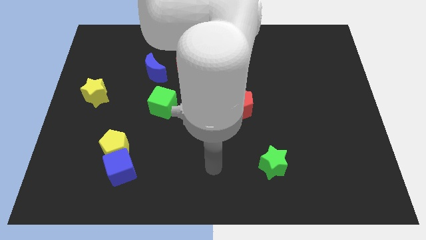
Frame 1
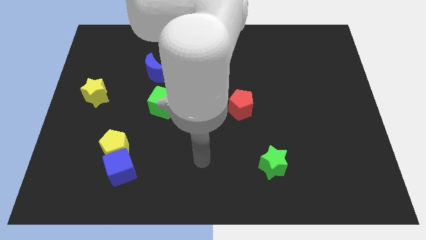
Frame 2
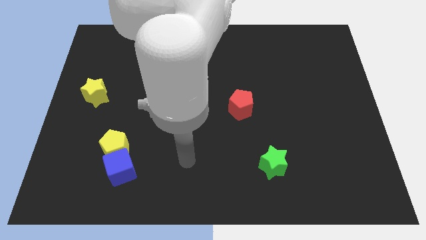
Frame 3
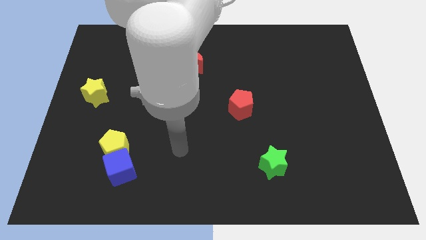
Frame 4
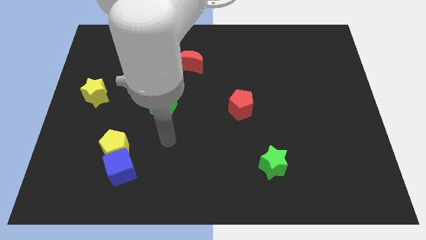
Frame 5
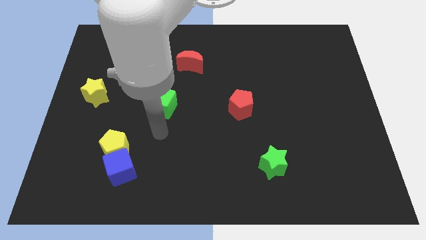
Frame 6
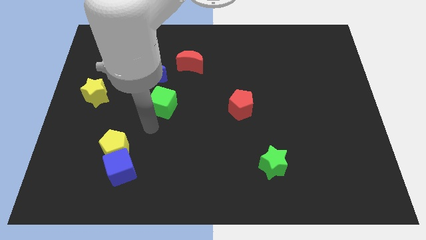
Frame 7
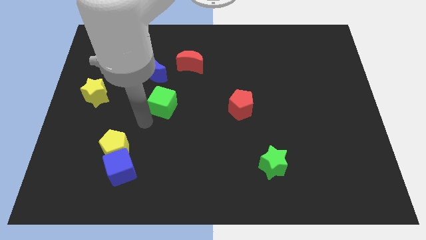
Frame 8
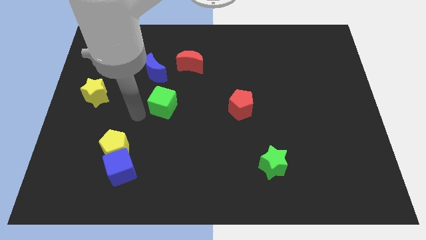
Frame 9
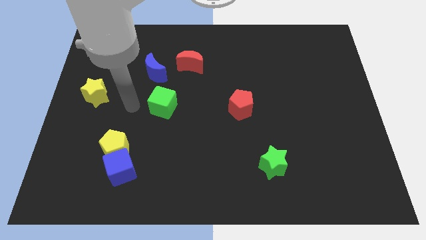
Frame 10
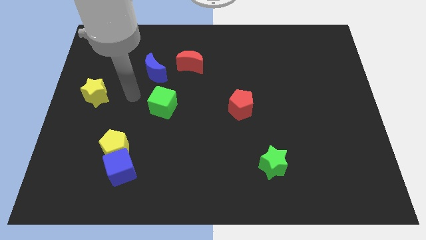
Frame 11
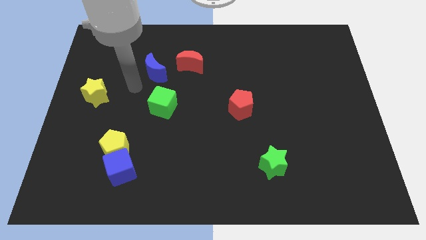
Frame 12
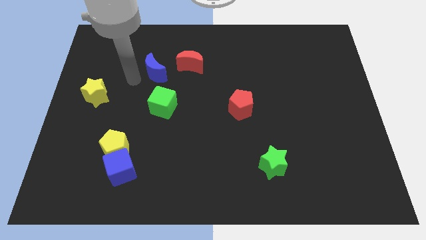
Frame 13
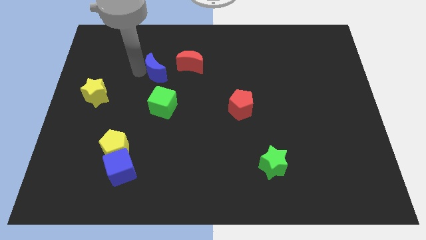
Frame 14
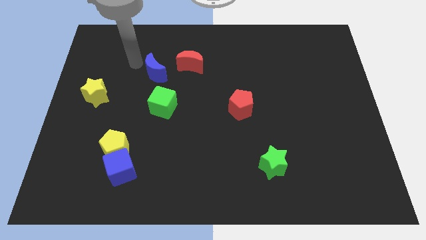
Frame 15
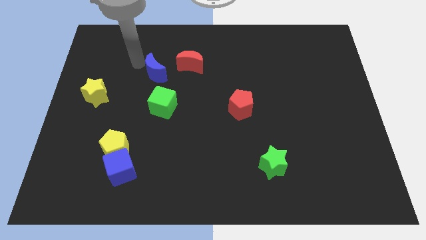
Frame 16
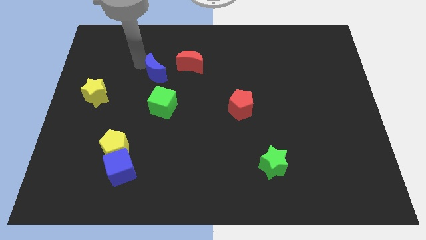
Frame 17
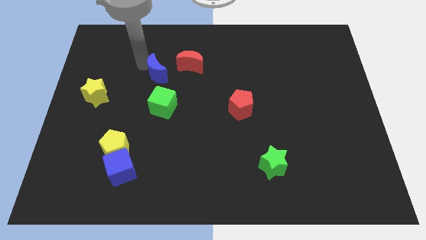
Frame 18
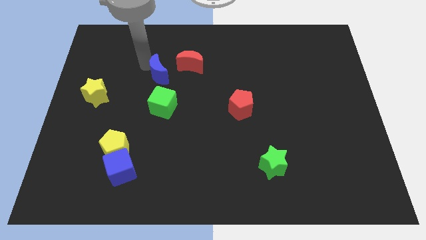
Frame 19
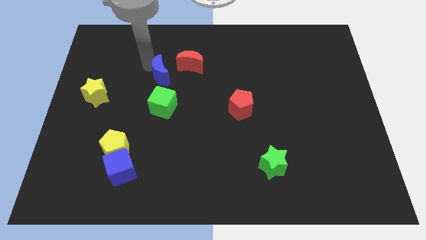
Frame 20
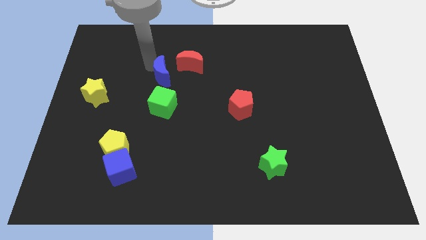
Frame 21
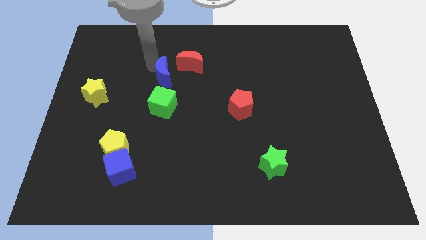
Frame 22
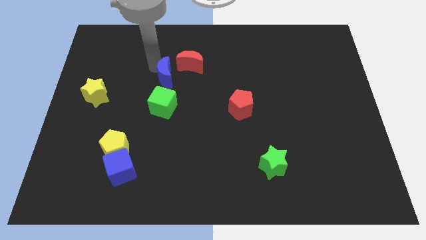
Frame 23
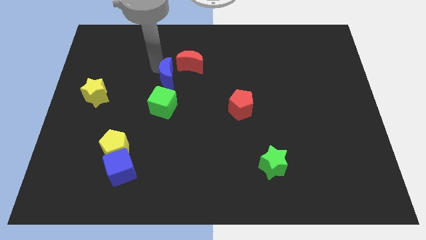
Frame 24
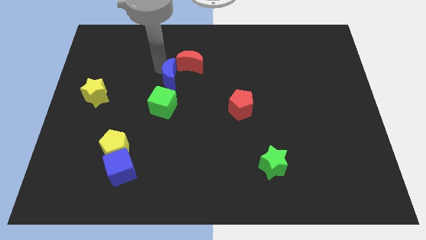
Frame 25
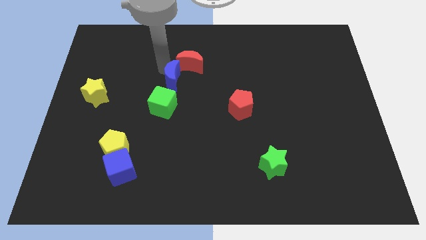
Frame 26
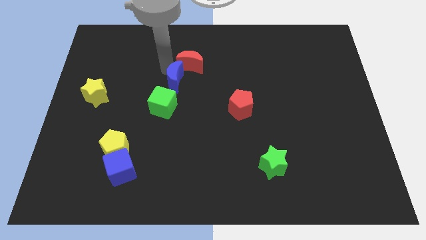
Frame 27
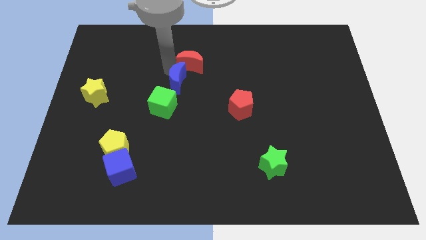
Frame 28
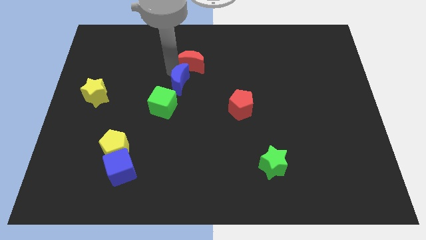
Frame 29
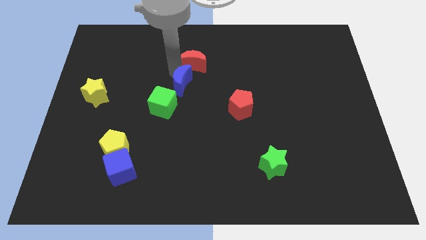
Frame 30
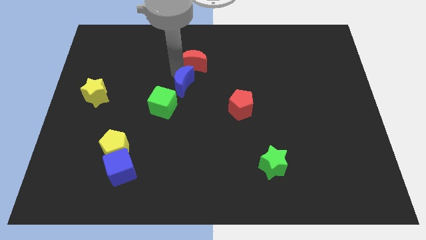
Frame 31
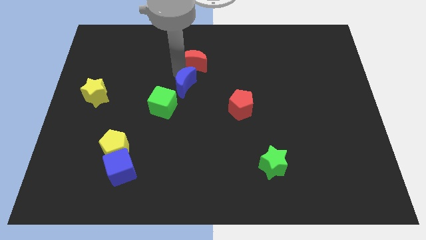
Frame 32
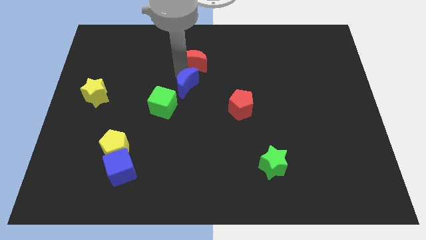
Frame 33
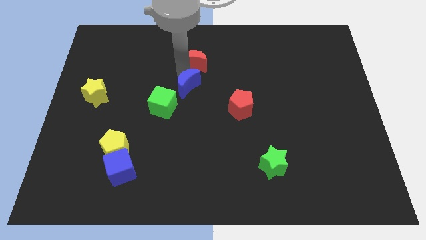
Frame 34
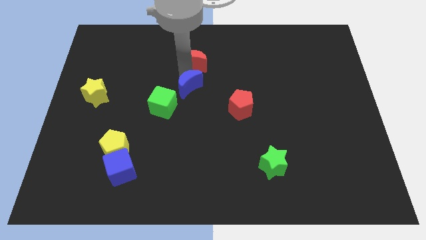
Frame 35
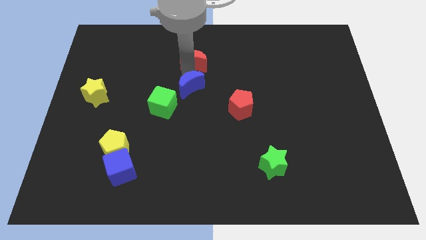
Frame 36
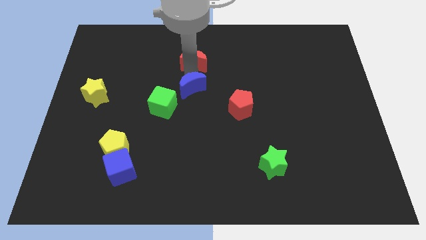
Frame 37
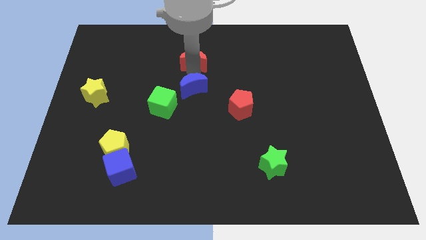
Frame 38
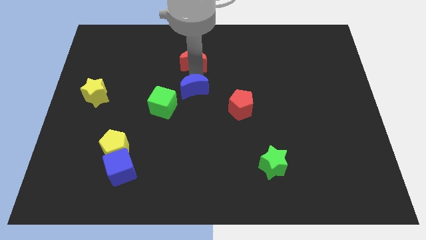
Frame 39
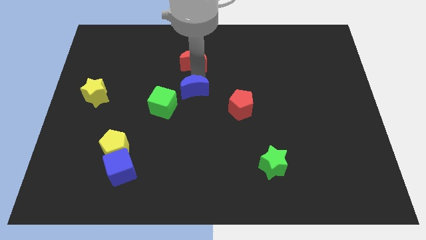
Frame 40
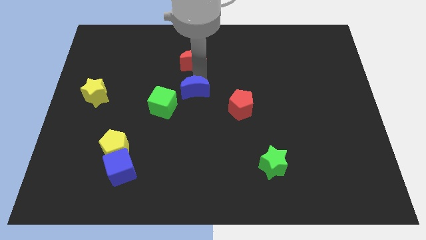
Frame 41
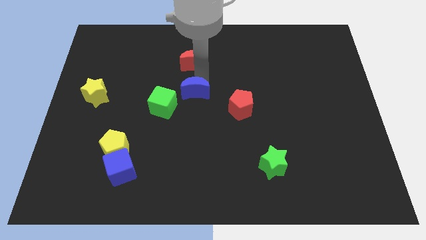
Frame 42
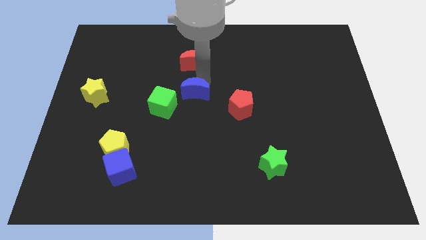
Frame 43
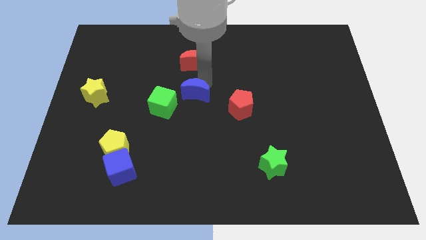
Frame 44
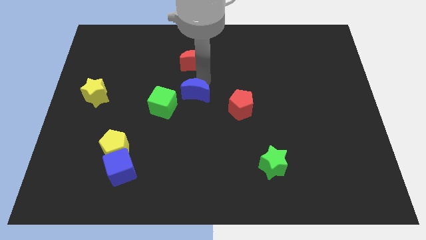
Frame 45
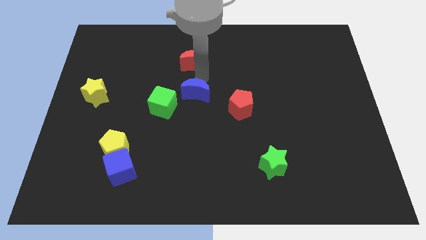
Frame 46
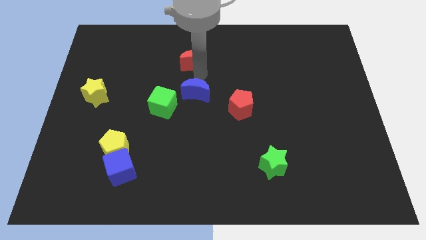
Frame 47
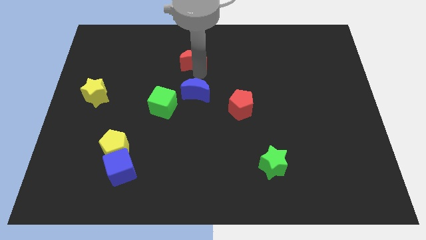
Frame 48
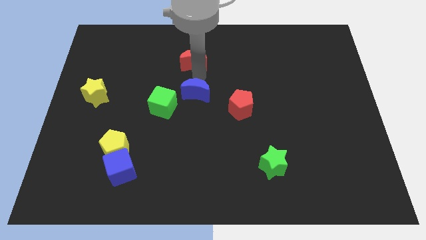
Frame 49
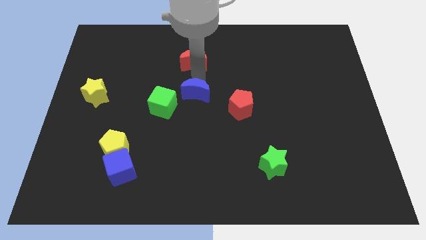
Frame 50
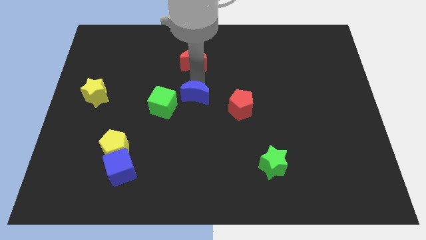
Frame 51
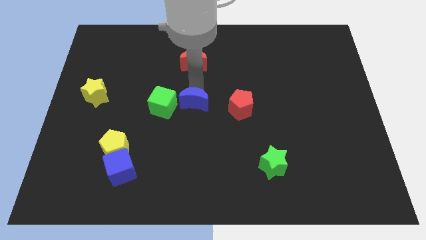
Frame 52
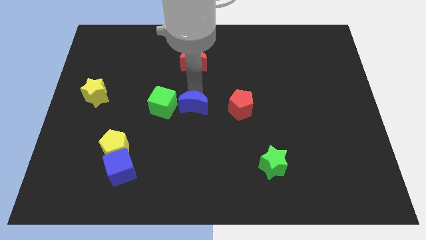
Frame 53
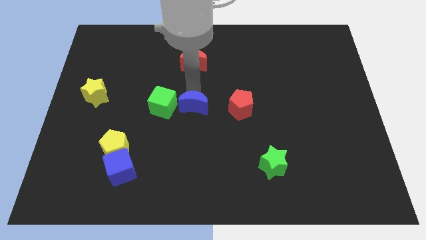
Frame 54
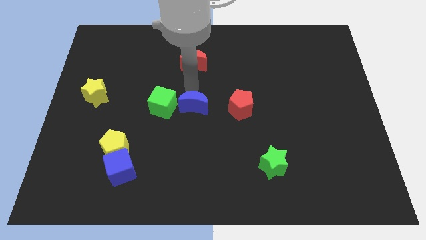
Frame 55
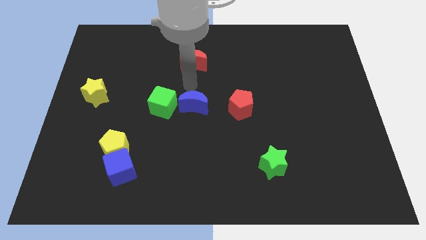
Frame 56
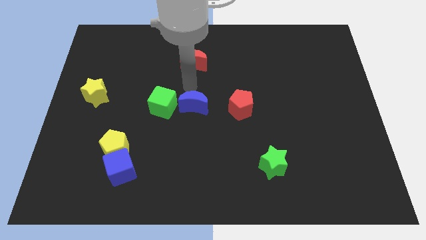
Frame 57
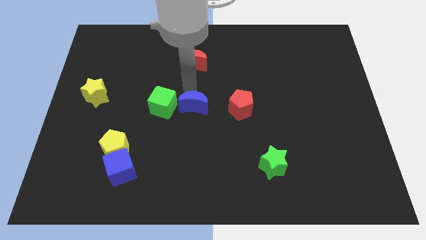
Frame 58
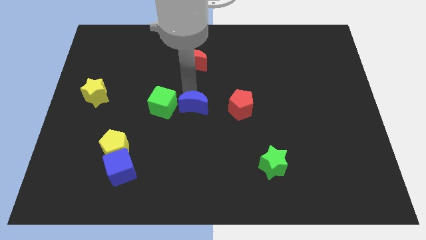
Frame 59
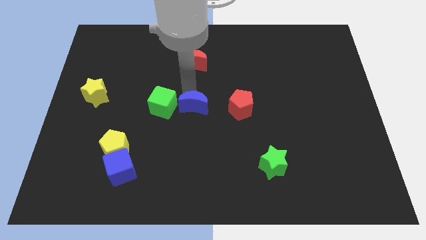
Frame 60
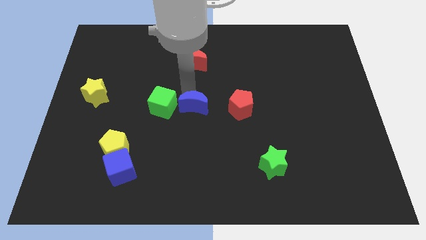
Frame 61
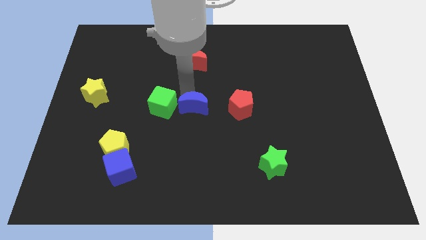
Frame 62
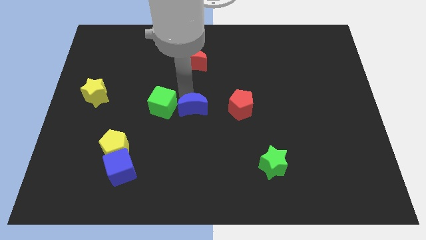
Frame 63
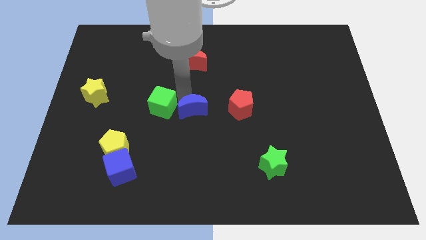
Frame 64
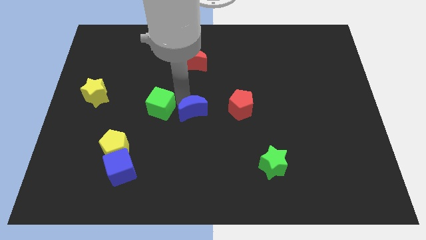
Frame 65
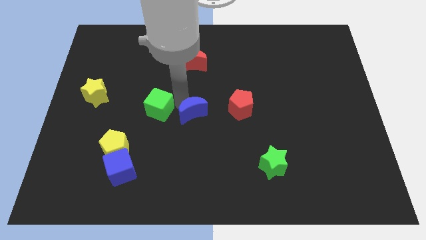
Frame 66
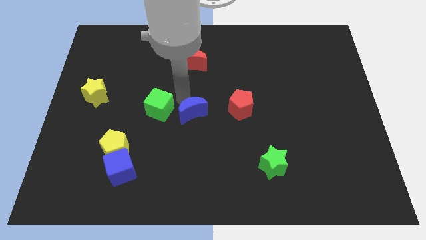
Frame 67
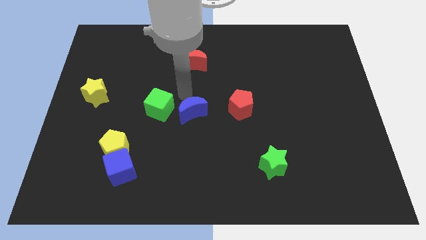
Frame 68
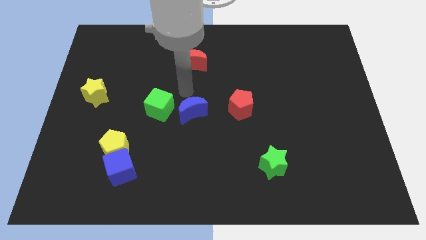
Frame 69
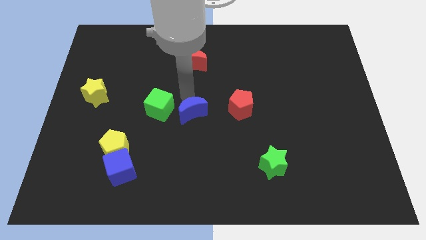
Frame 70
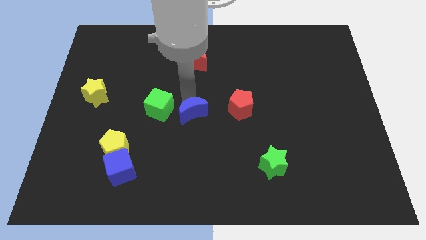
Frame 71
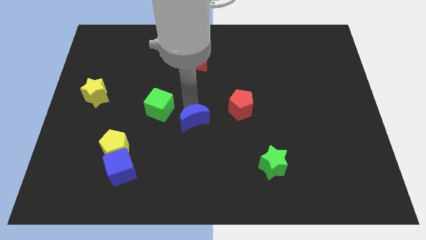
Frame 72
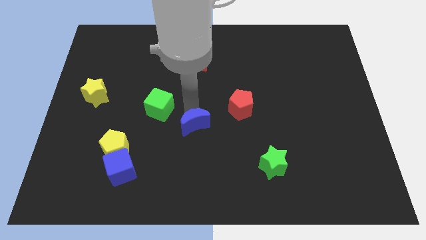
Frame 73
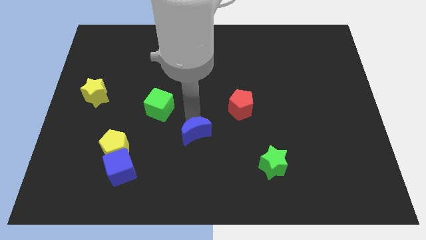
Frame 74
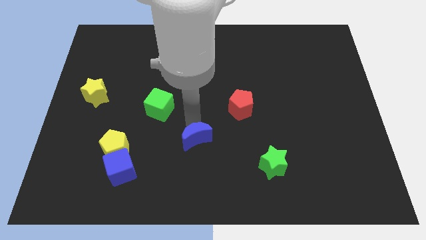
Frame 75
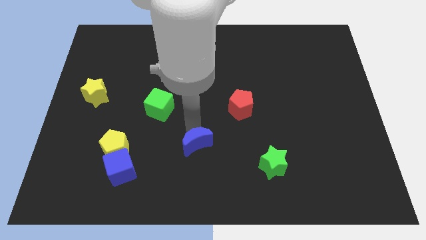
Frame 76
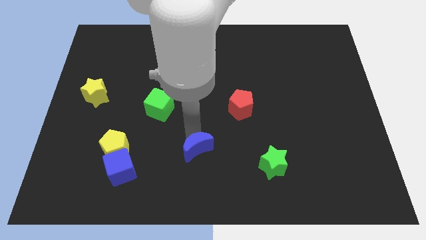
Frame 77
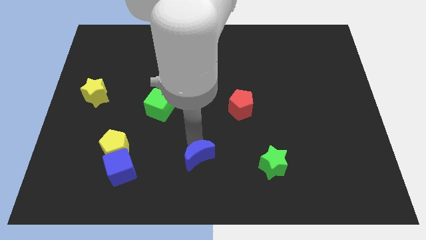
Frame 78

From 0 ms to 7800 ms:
slide the blue moon to the bottom

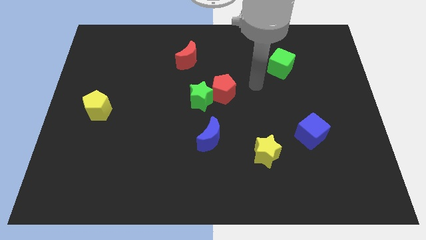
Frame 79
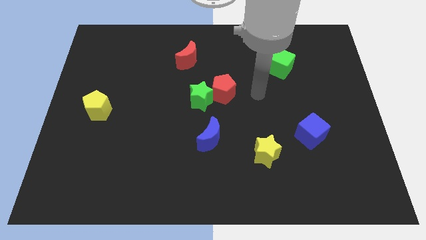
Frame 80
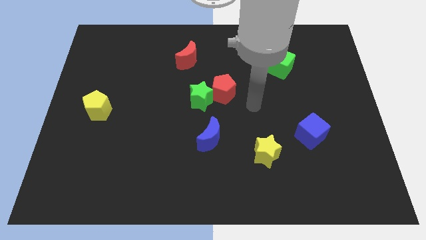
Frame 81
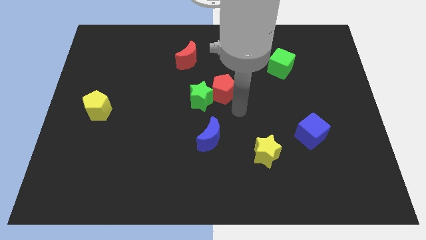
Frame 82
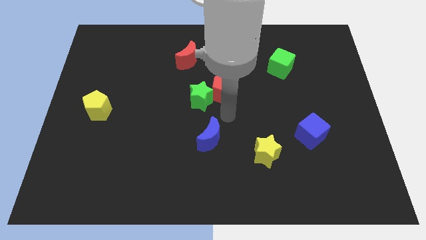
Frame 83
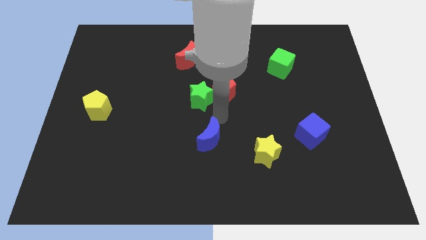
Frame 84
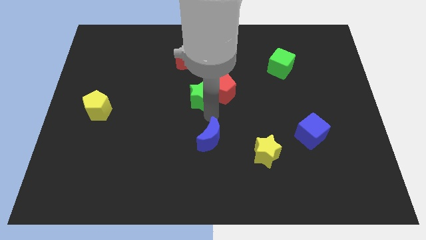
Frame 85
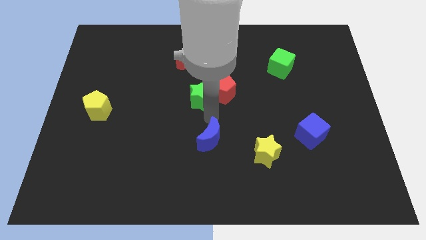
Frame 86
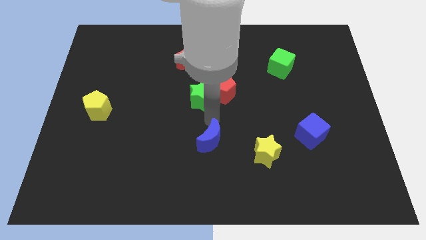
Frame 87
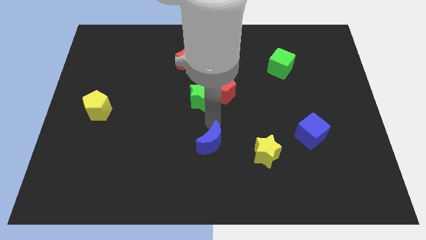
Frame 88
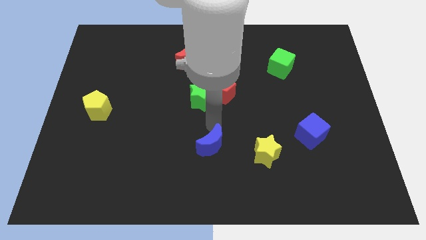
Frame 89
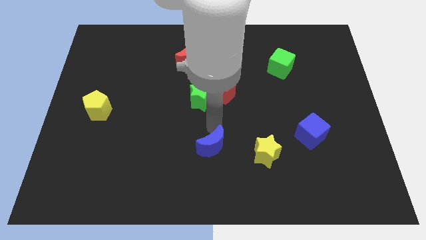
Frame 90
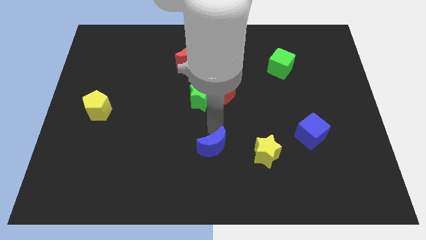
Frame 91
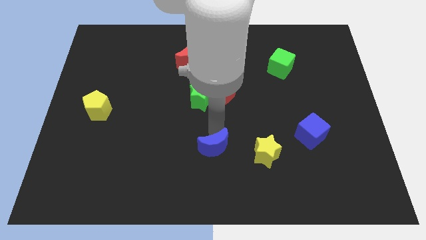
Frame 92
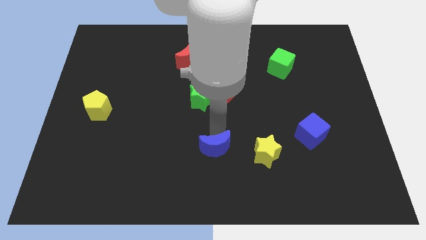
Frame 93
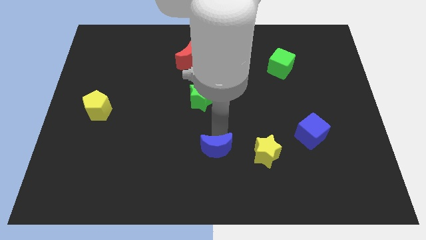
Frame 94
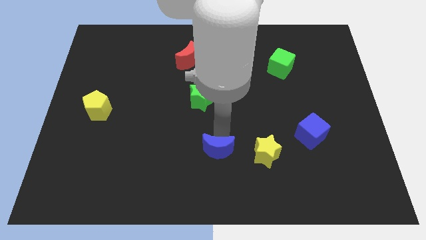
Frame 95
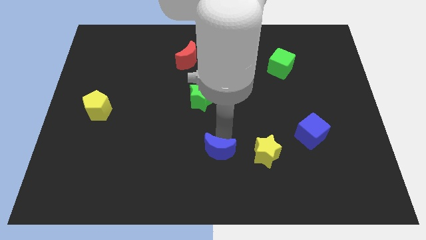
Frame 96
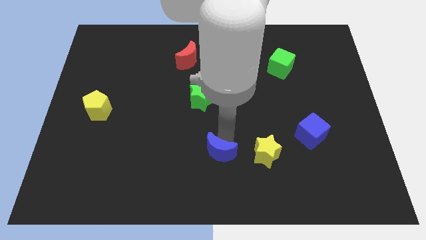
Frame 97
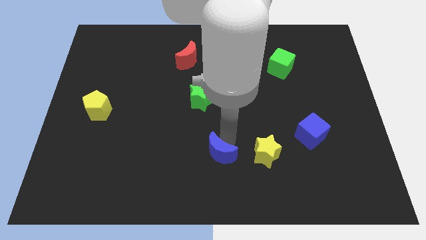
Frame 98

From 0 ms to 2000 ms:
move the blue moon to the bottom side
